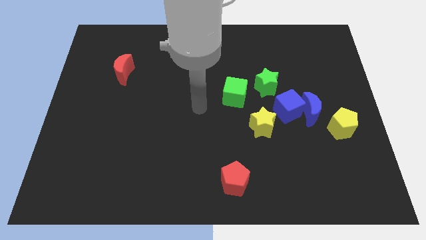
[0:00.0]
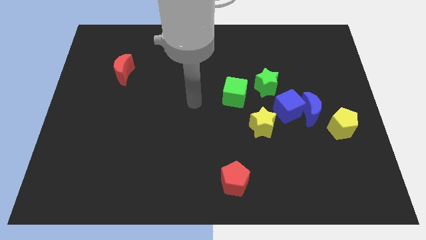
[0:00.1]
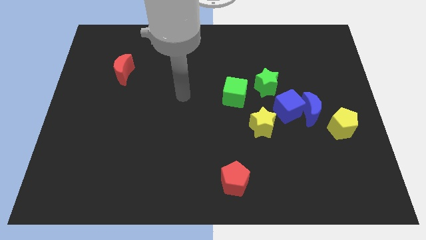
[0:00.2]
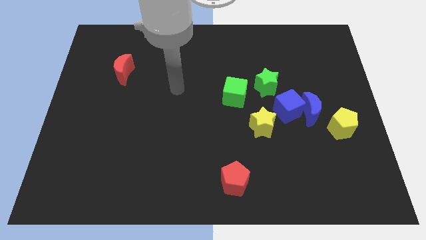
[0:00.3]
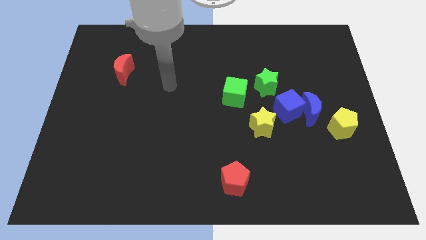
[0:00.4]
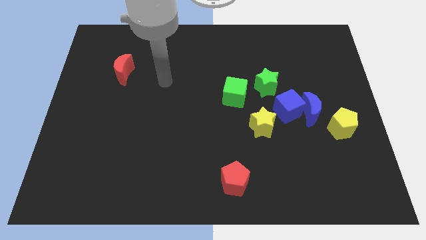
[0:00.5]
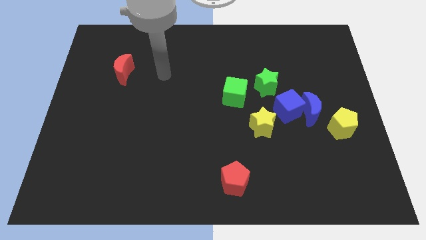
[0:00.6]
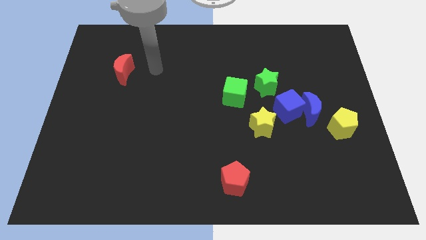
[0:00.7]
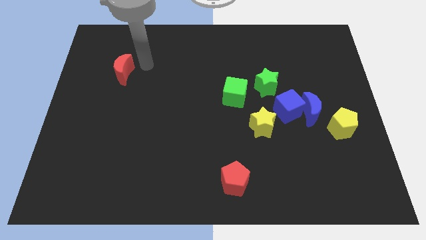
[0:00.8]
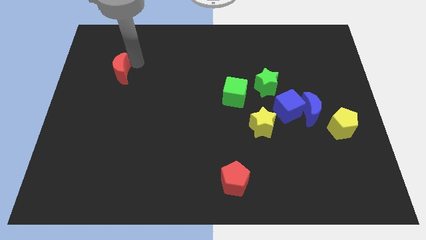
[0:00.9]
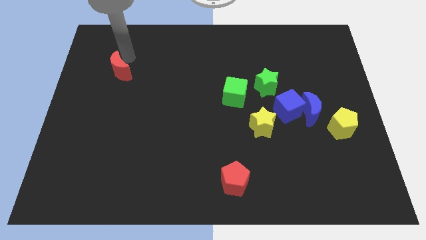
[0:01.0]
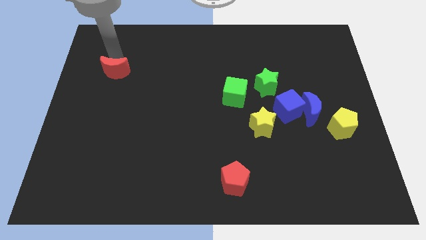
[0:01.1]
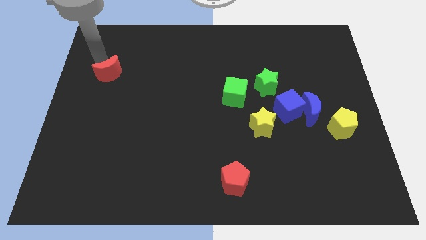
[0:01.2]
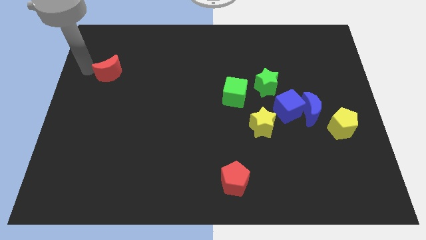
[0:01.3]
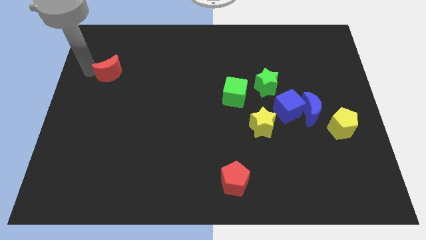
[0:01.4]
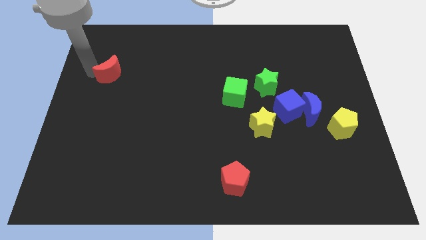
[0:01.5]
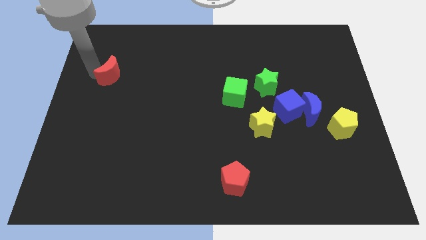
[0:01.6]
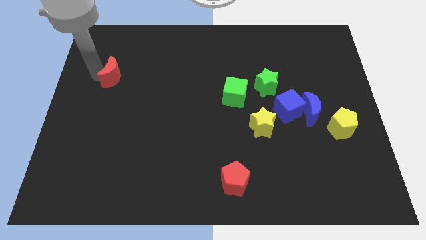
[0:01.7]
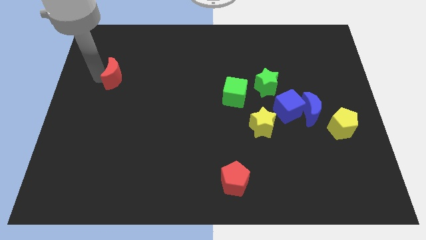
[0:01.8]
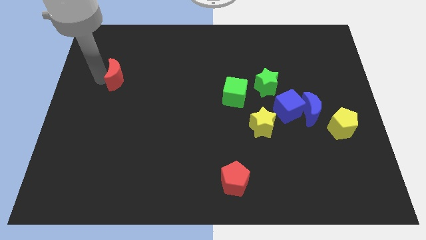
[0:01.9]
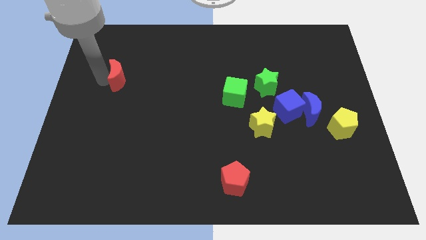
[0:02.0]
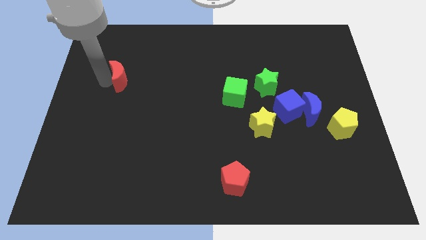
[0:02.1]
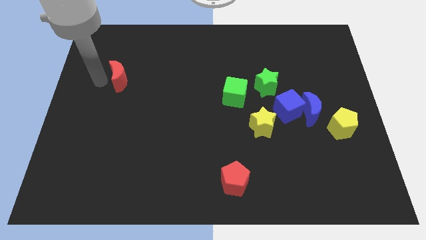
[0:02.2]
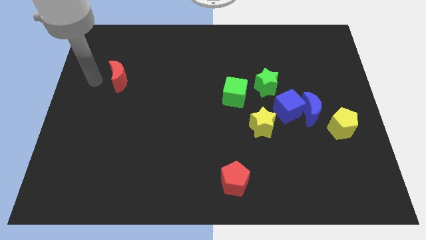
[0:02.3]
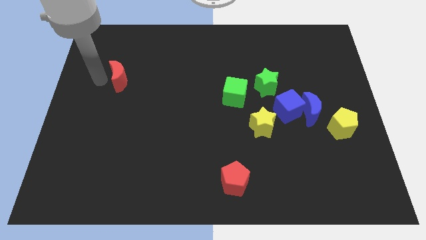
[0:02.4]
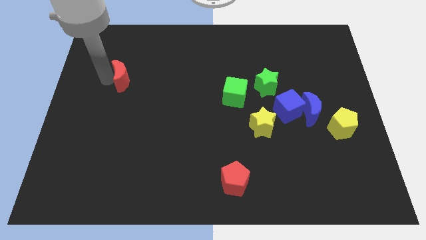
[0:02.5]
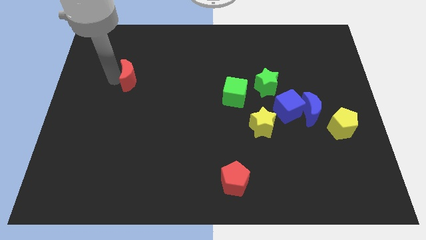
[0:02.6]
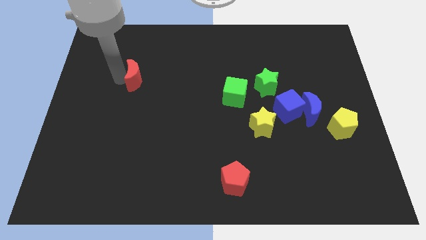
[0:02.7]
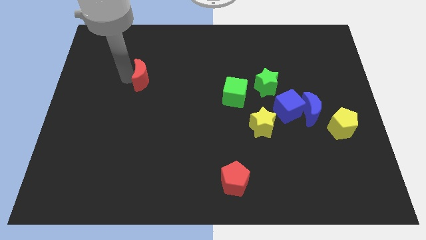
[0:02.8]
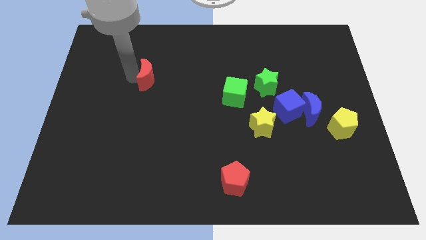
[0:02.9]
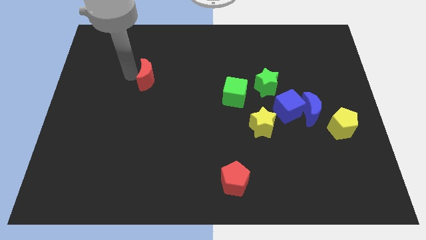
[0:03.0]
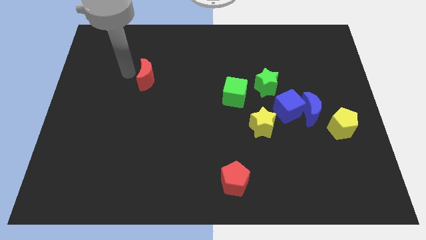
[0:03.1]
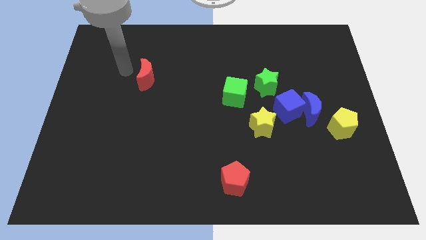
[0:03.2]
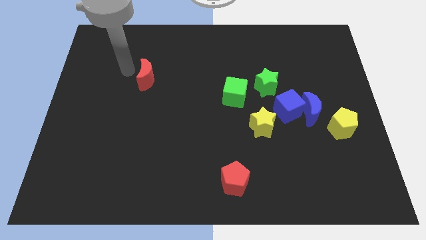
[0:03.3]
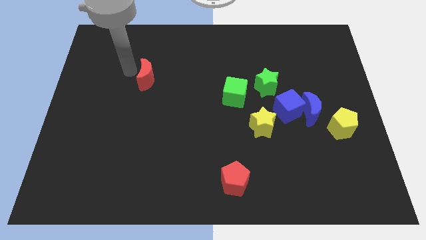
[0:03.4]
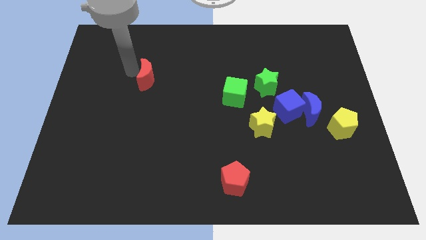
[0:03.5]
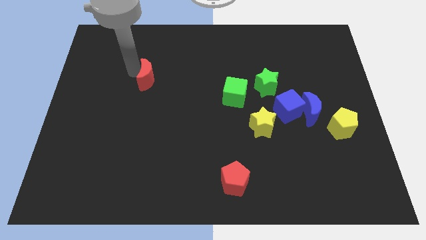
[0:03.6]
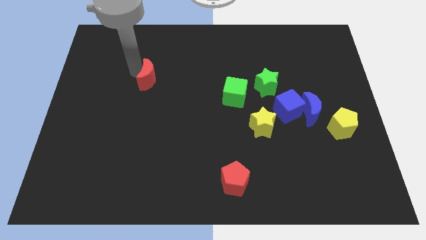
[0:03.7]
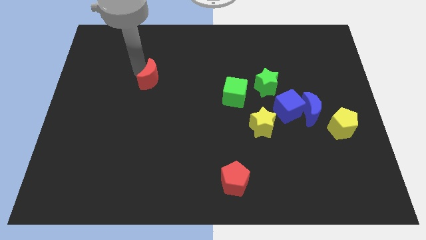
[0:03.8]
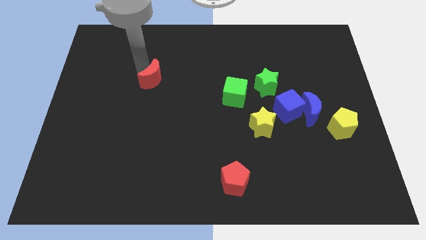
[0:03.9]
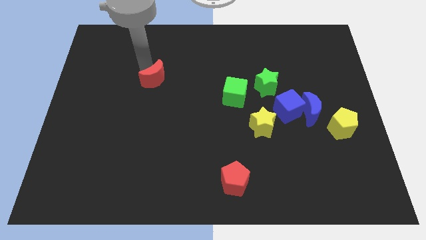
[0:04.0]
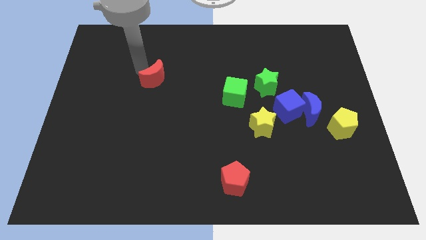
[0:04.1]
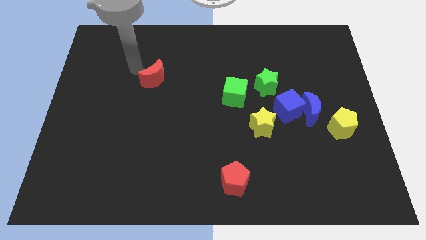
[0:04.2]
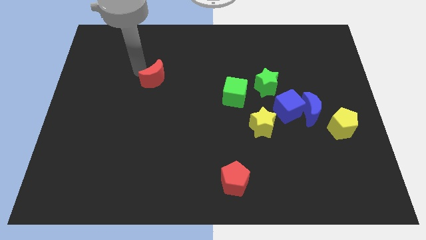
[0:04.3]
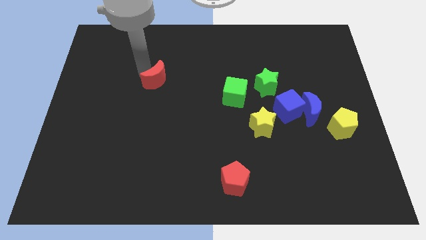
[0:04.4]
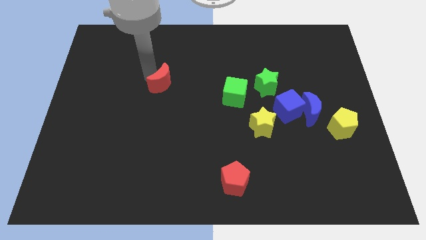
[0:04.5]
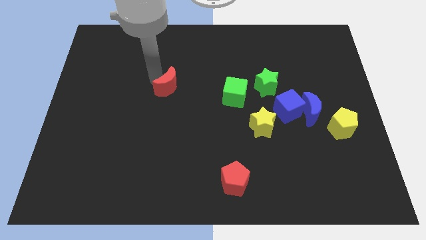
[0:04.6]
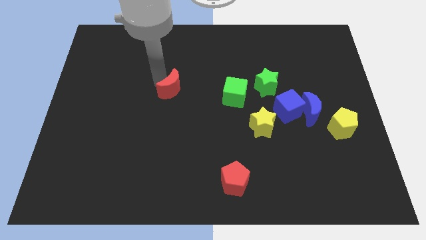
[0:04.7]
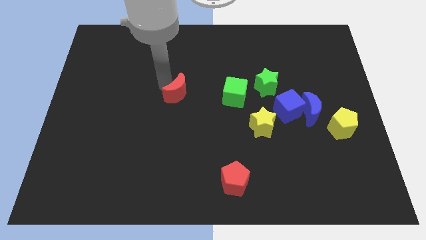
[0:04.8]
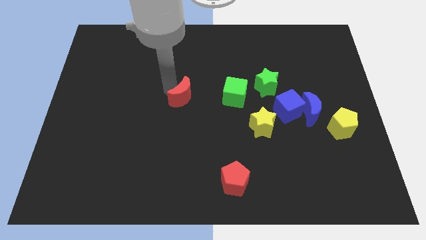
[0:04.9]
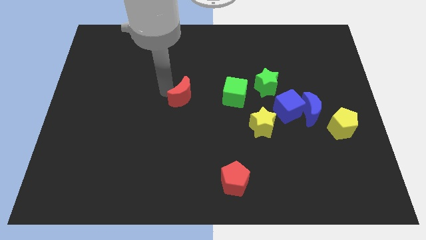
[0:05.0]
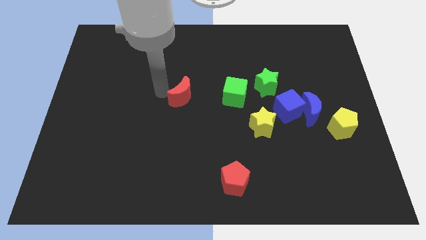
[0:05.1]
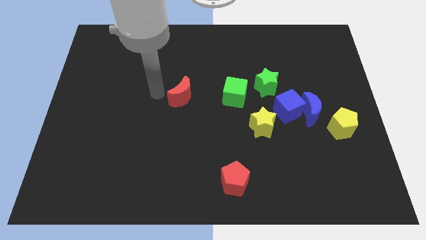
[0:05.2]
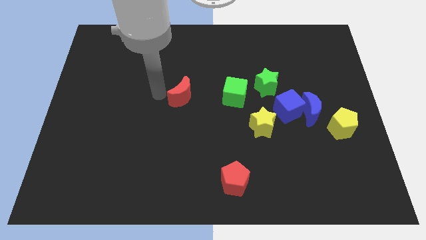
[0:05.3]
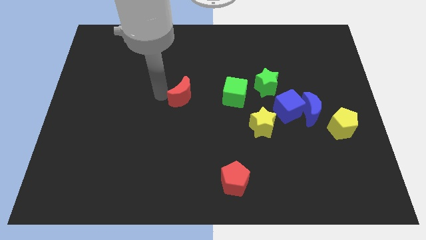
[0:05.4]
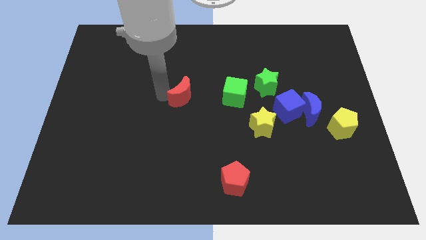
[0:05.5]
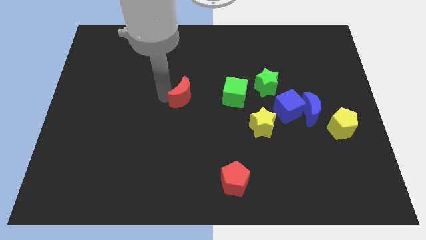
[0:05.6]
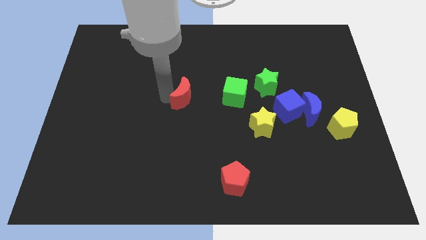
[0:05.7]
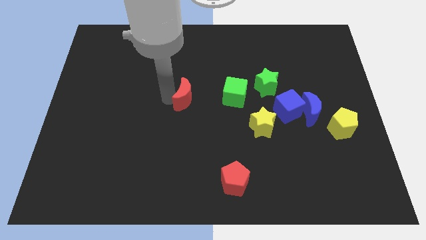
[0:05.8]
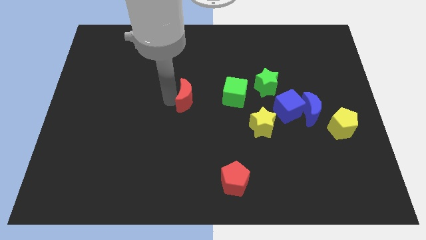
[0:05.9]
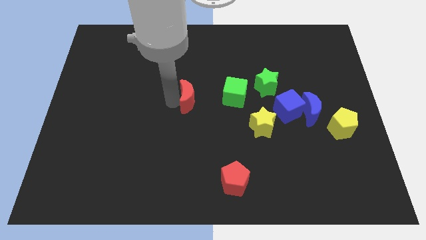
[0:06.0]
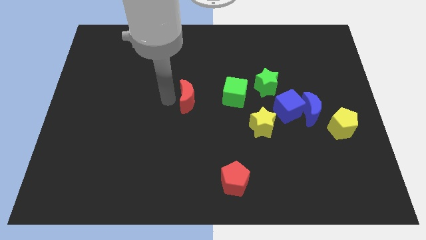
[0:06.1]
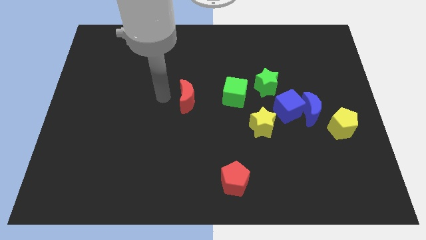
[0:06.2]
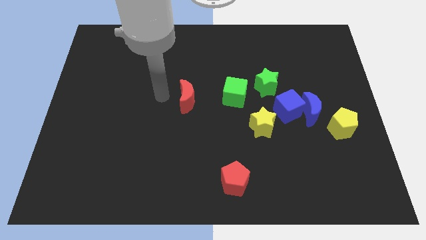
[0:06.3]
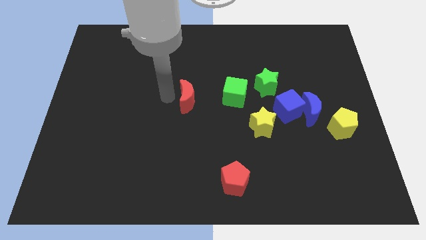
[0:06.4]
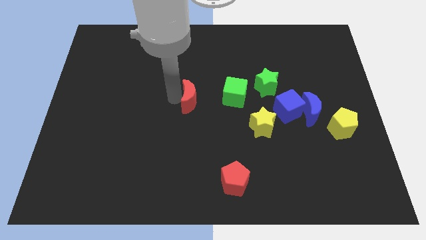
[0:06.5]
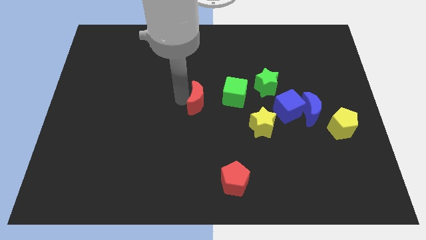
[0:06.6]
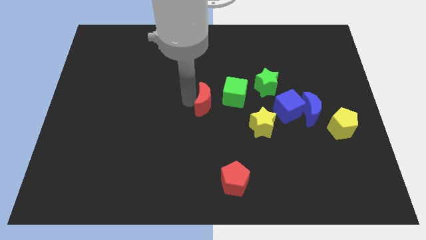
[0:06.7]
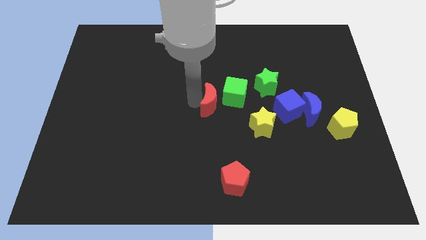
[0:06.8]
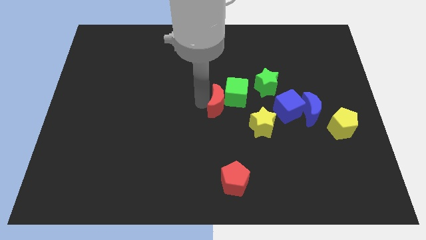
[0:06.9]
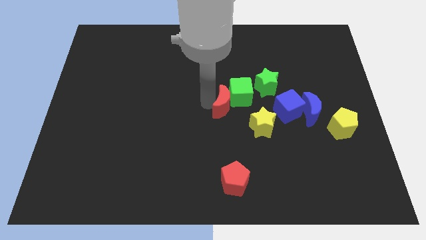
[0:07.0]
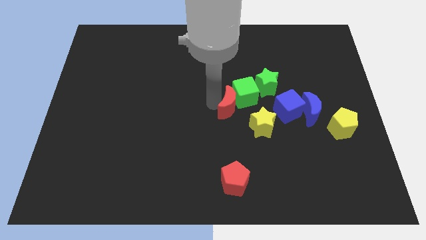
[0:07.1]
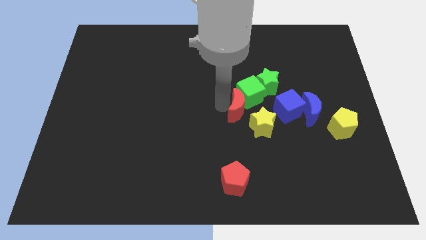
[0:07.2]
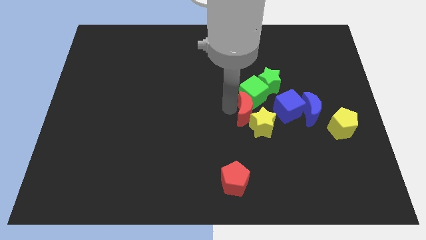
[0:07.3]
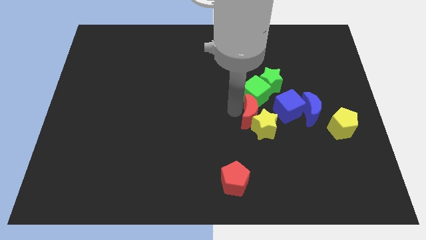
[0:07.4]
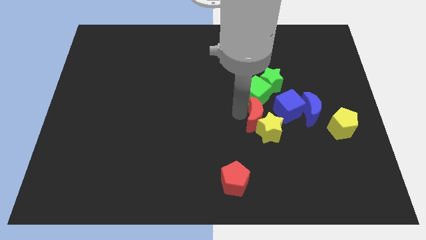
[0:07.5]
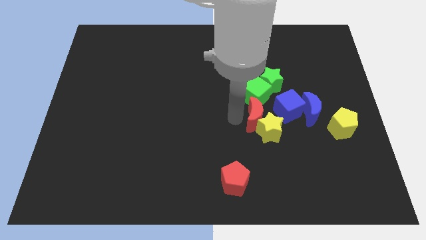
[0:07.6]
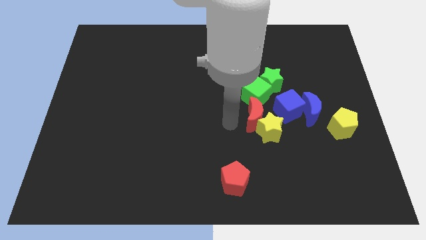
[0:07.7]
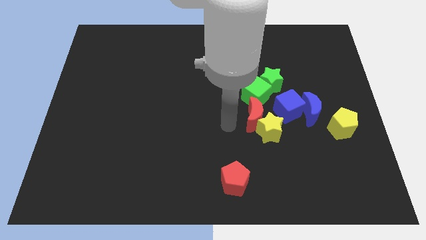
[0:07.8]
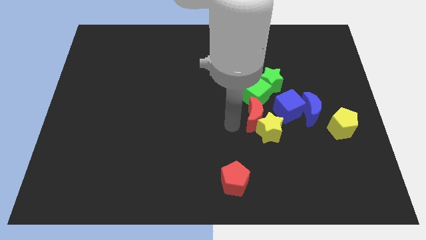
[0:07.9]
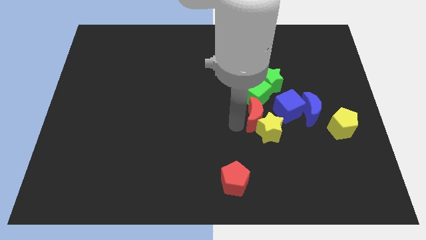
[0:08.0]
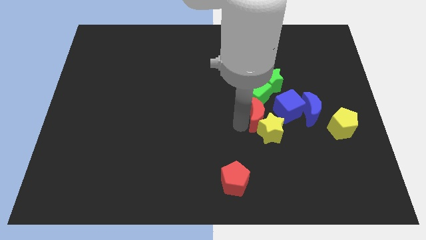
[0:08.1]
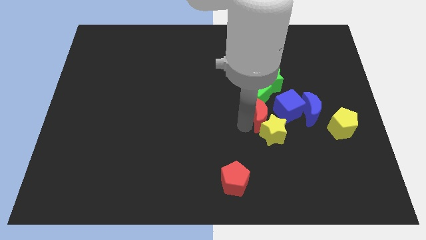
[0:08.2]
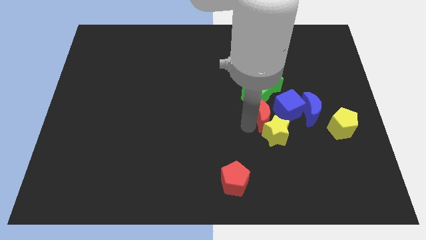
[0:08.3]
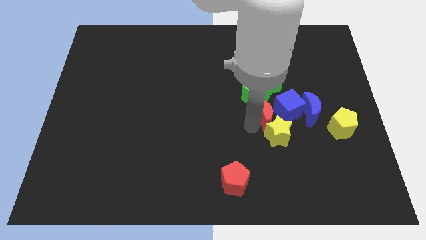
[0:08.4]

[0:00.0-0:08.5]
move the red moon to the blue cube
